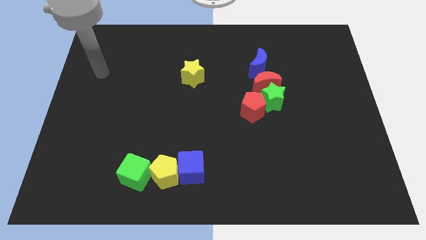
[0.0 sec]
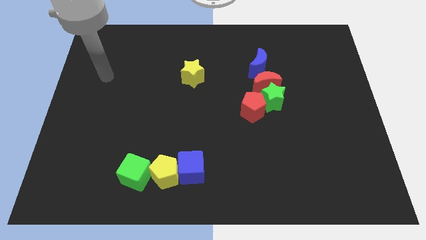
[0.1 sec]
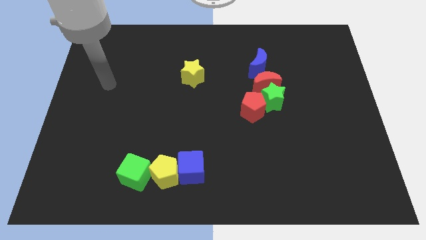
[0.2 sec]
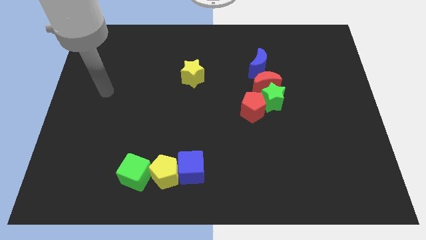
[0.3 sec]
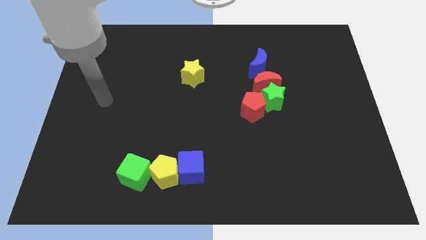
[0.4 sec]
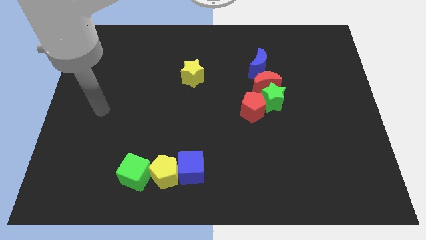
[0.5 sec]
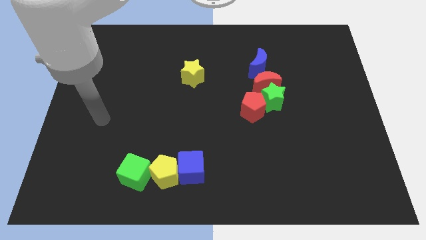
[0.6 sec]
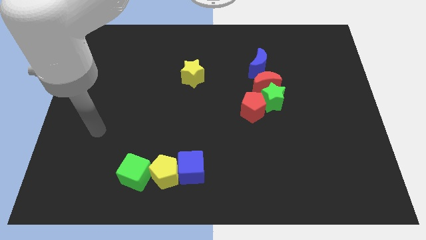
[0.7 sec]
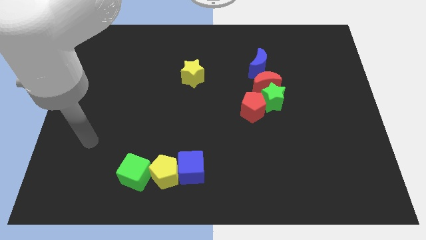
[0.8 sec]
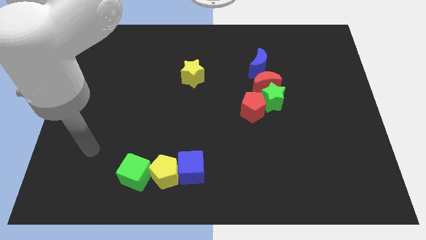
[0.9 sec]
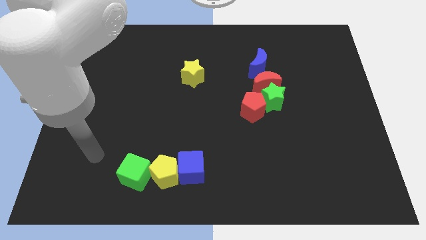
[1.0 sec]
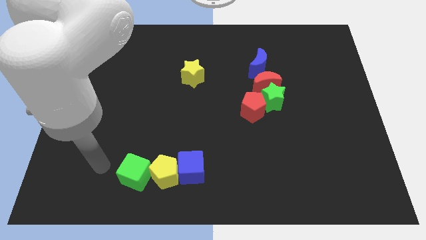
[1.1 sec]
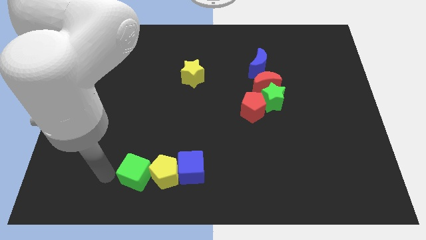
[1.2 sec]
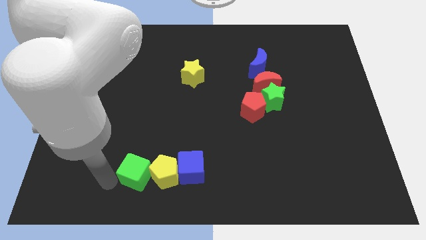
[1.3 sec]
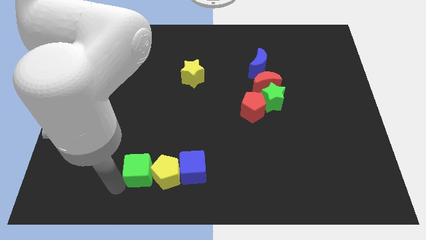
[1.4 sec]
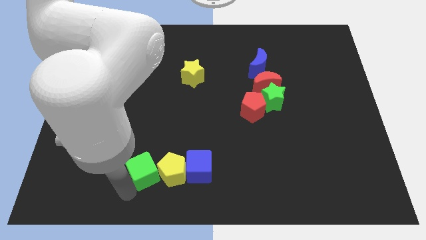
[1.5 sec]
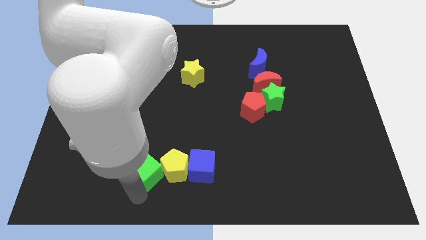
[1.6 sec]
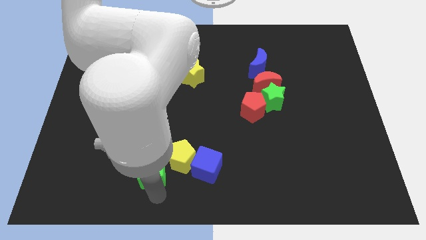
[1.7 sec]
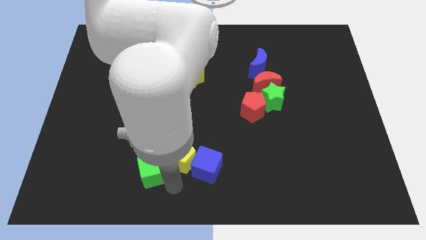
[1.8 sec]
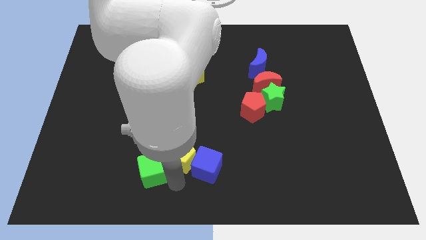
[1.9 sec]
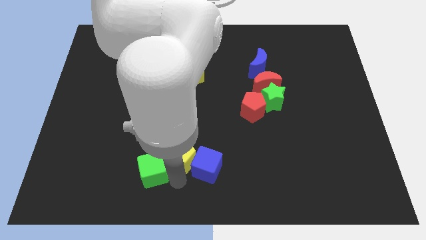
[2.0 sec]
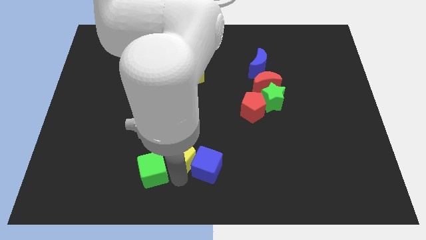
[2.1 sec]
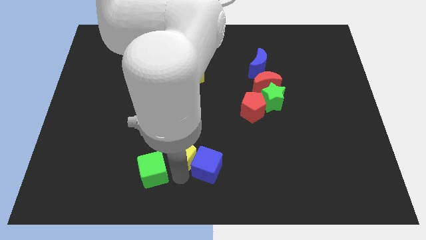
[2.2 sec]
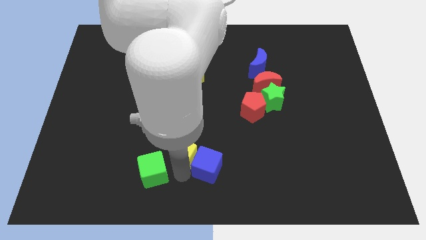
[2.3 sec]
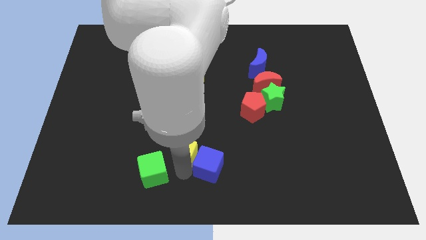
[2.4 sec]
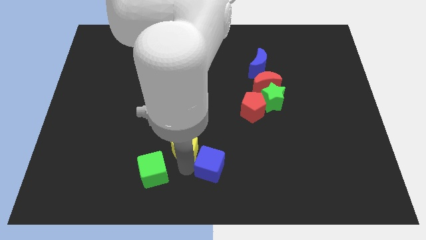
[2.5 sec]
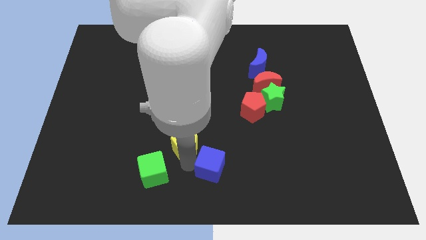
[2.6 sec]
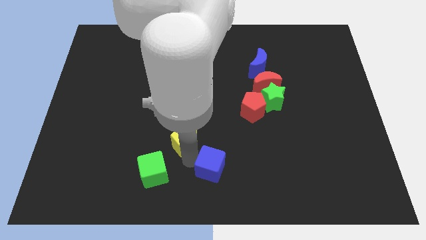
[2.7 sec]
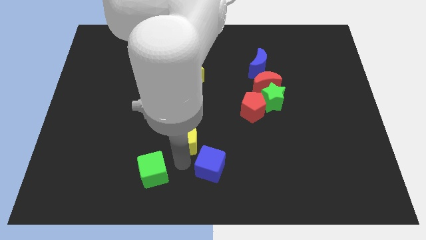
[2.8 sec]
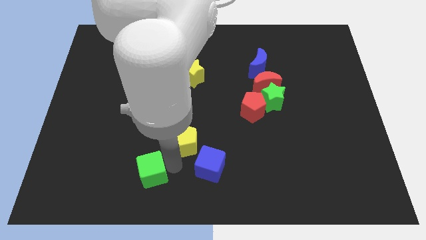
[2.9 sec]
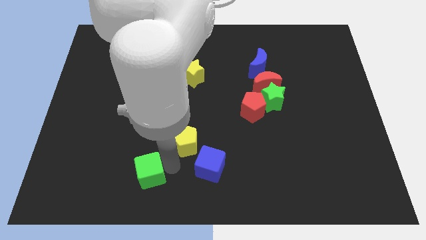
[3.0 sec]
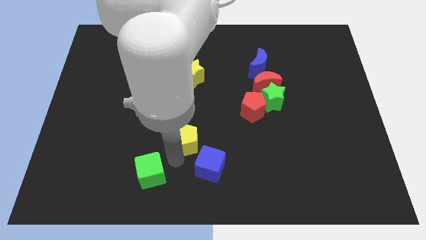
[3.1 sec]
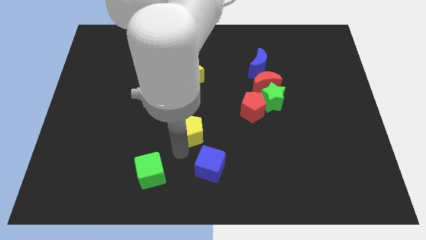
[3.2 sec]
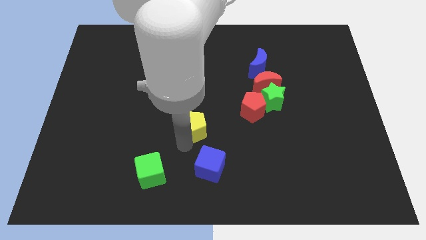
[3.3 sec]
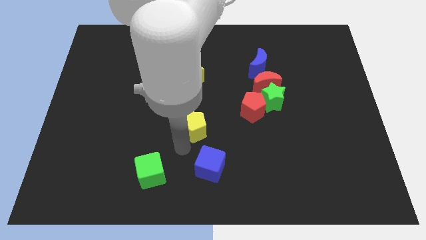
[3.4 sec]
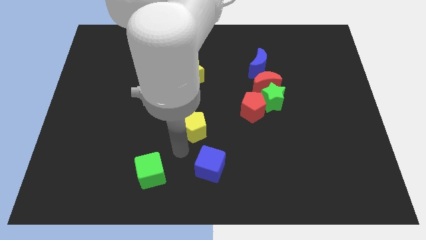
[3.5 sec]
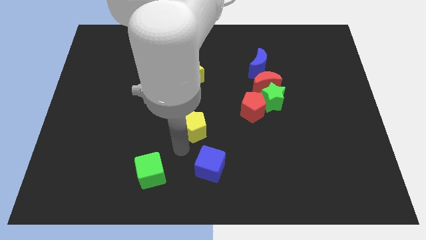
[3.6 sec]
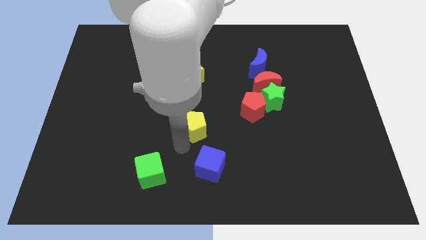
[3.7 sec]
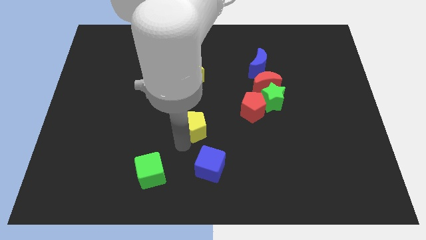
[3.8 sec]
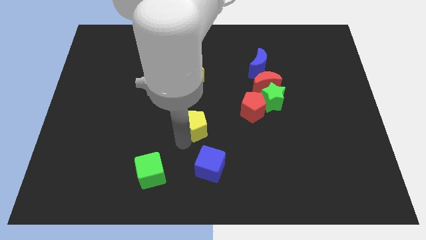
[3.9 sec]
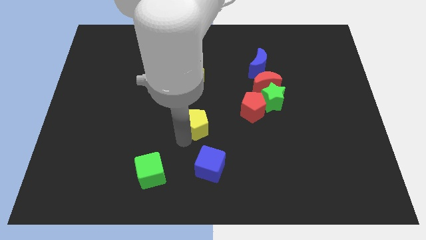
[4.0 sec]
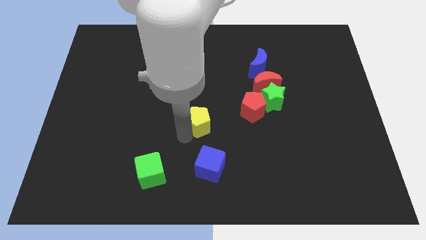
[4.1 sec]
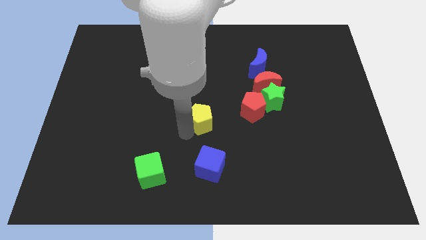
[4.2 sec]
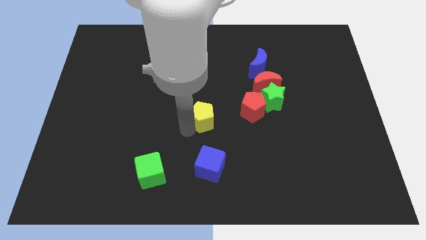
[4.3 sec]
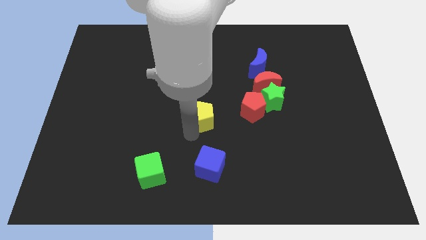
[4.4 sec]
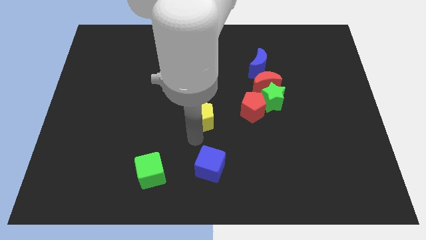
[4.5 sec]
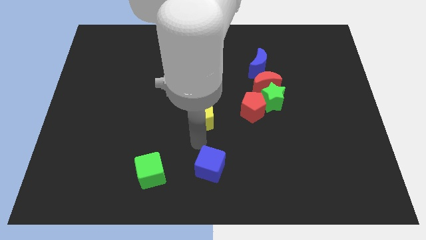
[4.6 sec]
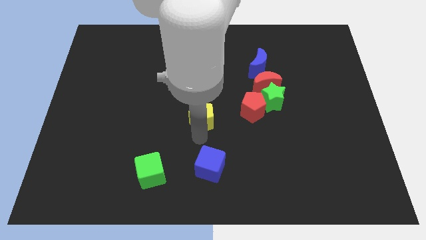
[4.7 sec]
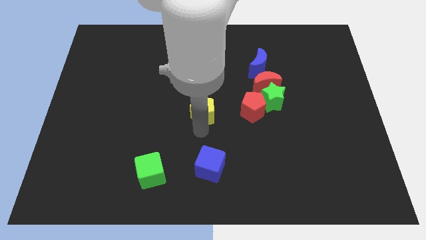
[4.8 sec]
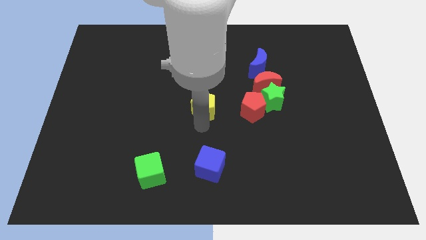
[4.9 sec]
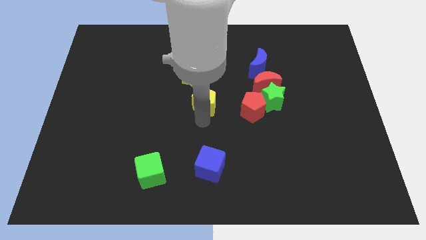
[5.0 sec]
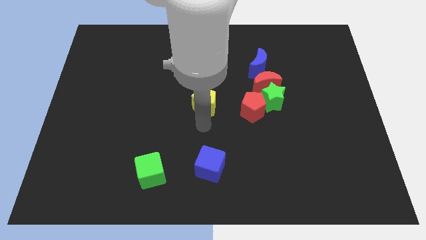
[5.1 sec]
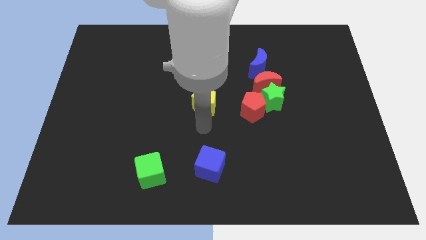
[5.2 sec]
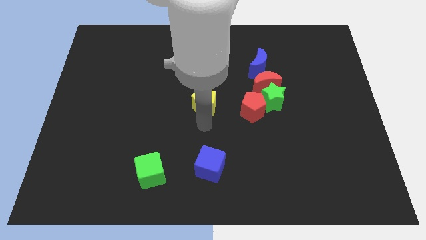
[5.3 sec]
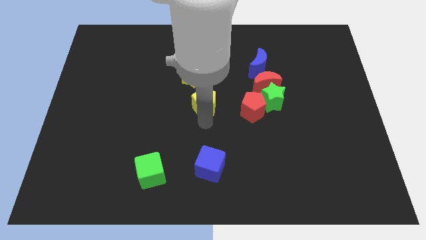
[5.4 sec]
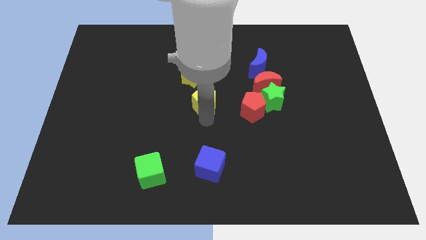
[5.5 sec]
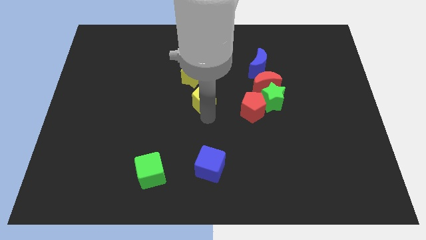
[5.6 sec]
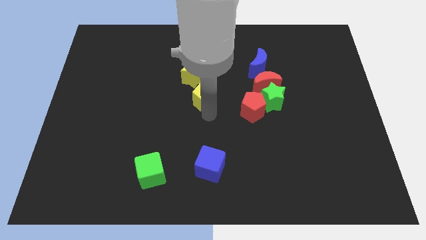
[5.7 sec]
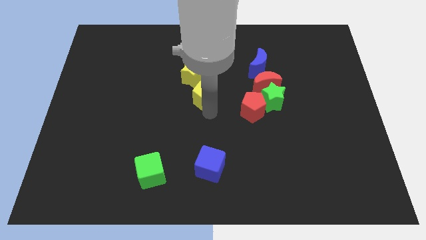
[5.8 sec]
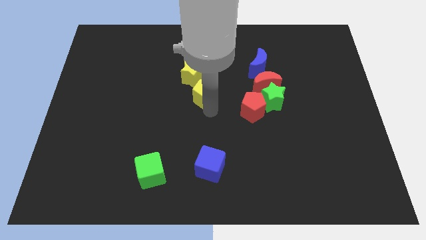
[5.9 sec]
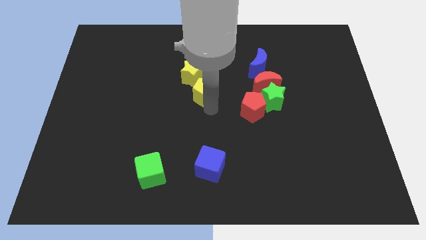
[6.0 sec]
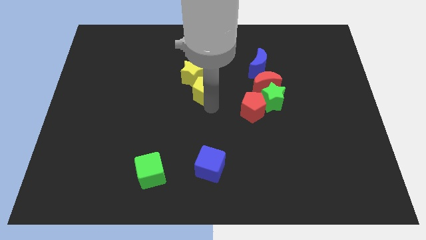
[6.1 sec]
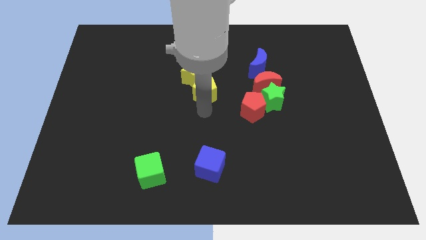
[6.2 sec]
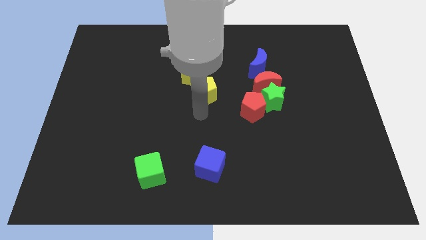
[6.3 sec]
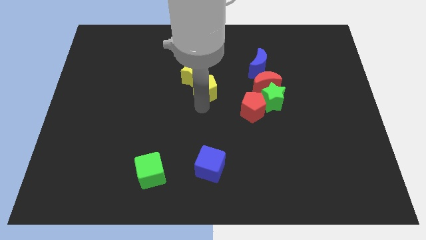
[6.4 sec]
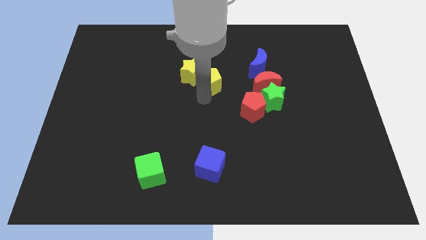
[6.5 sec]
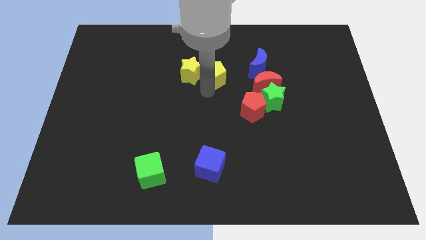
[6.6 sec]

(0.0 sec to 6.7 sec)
put the yellow pentagon to the top right of the yellow star
